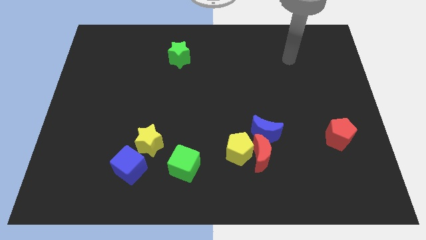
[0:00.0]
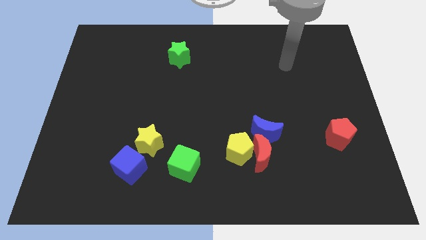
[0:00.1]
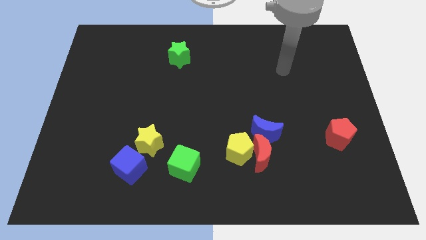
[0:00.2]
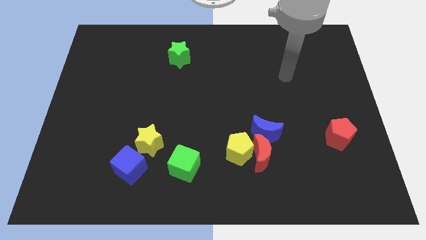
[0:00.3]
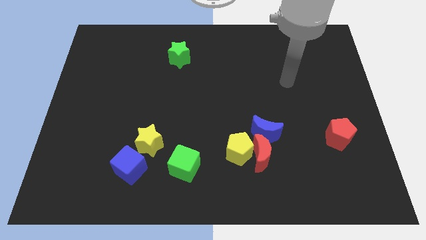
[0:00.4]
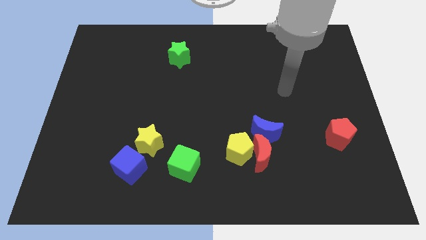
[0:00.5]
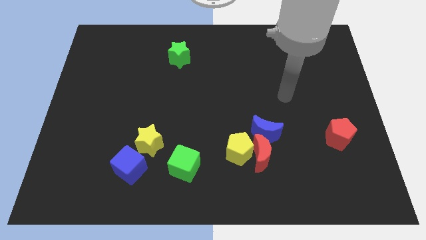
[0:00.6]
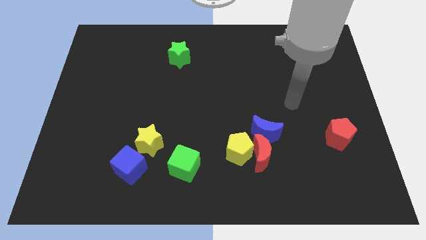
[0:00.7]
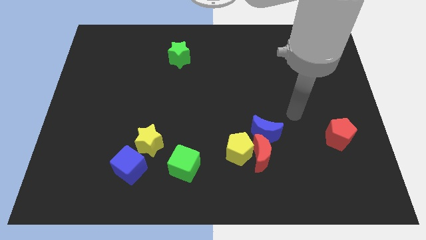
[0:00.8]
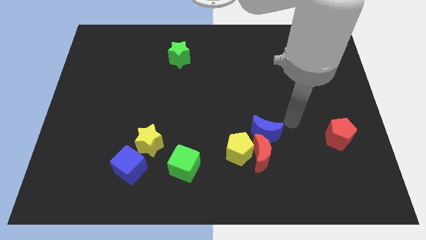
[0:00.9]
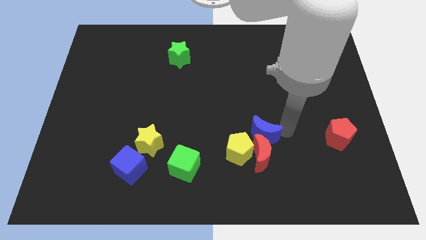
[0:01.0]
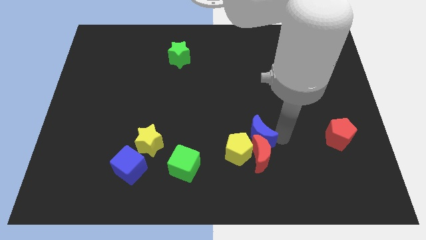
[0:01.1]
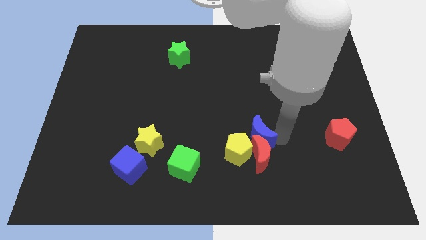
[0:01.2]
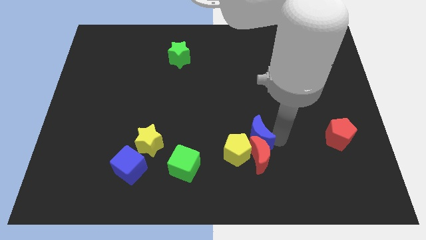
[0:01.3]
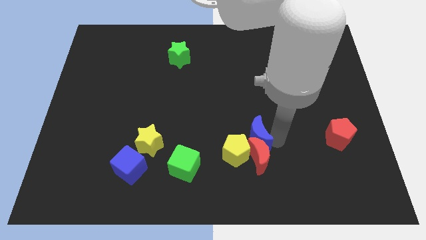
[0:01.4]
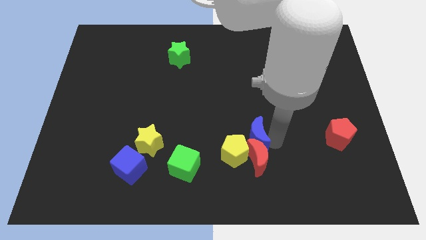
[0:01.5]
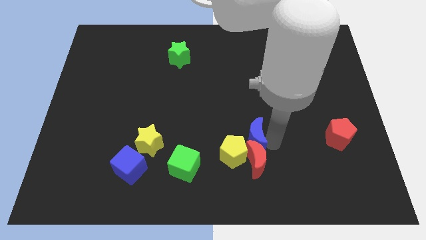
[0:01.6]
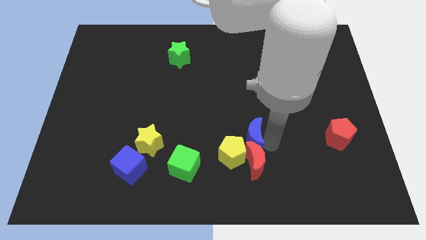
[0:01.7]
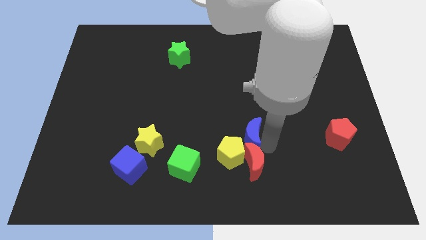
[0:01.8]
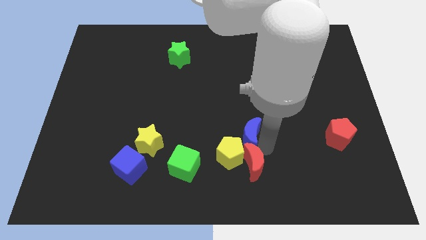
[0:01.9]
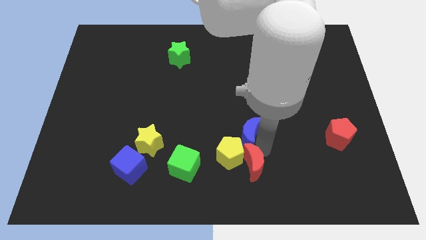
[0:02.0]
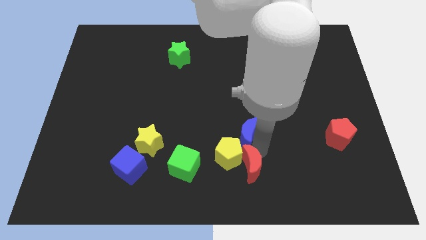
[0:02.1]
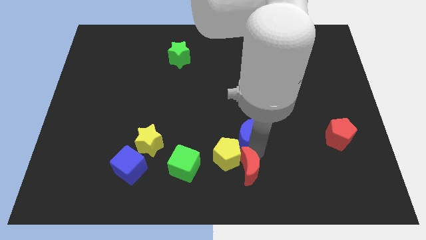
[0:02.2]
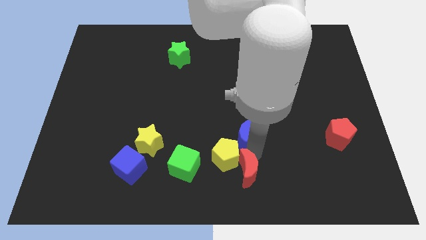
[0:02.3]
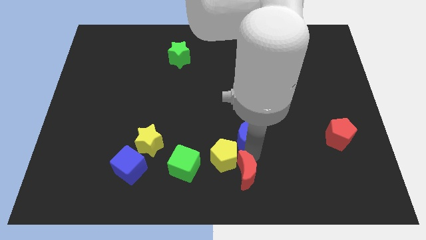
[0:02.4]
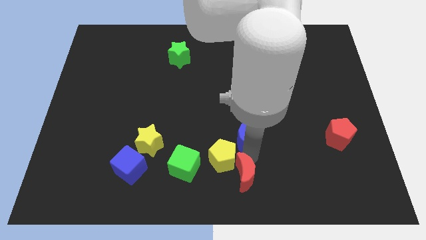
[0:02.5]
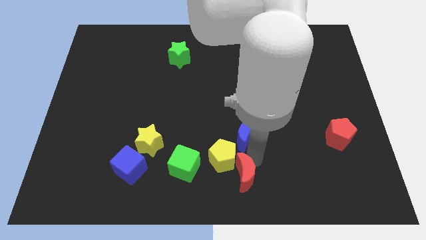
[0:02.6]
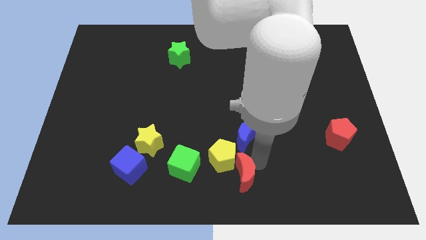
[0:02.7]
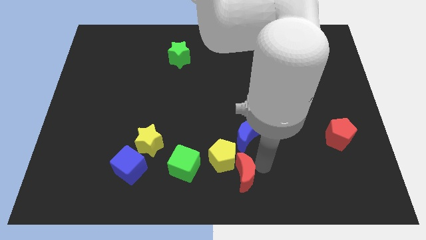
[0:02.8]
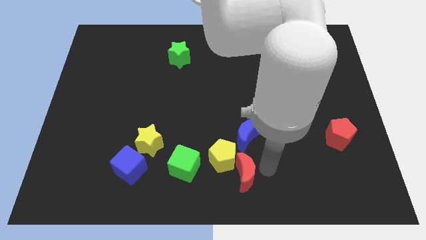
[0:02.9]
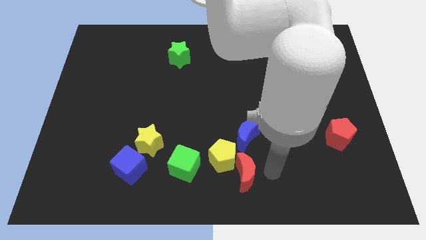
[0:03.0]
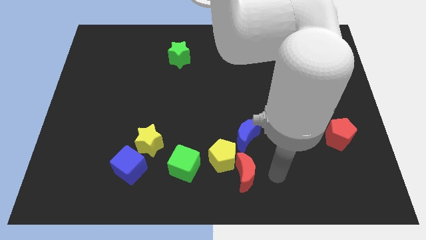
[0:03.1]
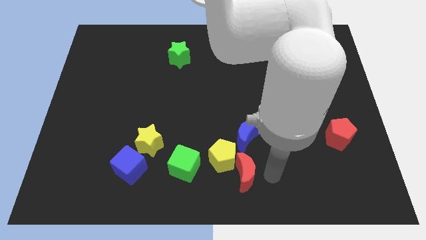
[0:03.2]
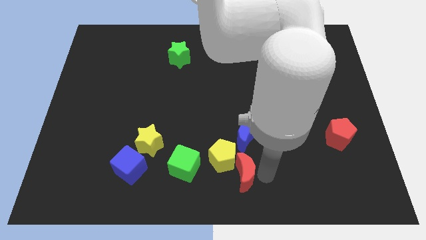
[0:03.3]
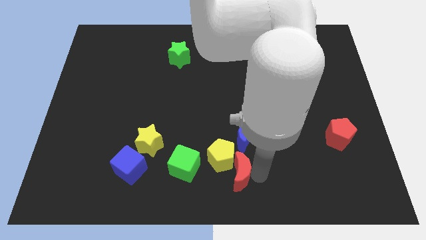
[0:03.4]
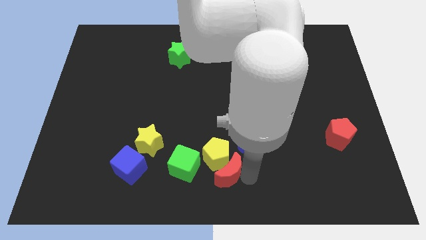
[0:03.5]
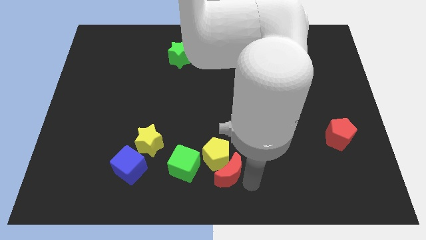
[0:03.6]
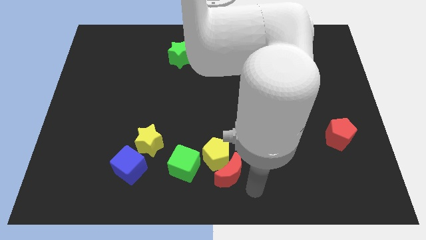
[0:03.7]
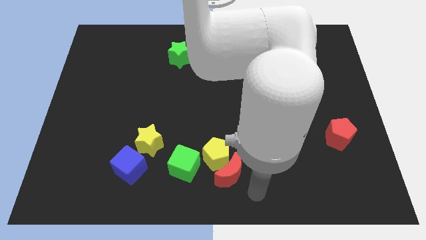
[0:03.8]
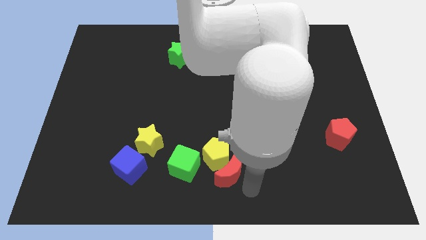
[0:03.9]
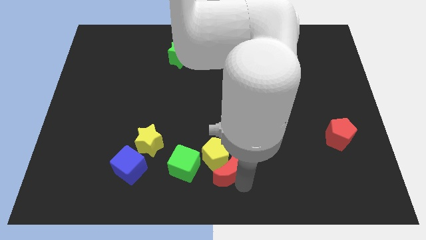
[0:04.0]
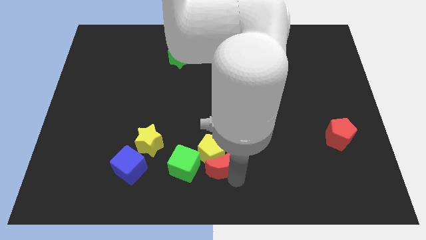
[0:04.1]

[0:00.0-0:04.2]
slightly move the red moon left

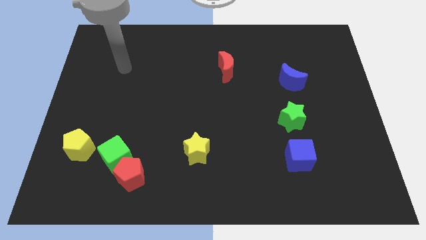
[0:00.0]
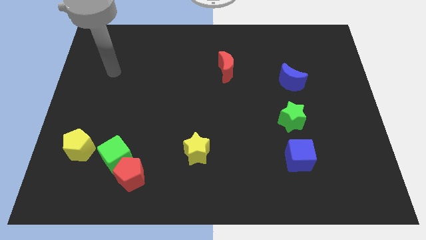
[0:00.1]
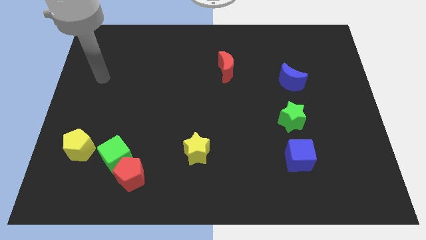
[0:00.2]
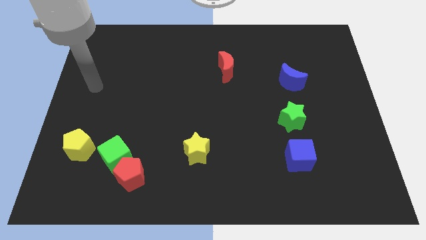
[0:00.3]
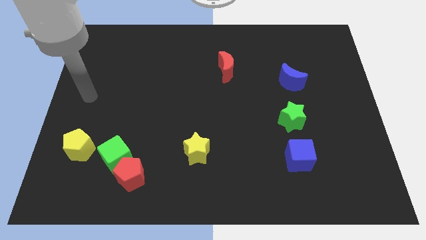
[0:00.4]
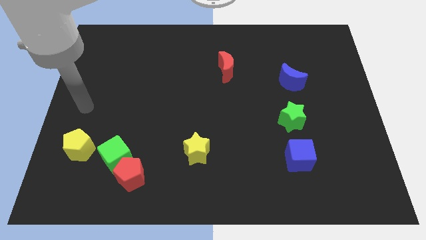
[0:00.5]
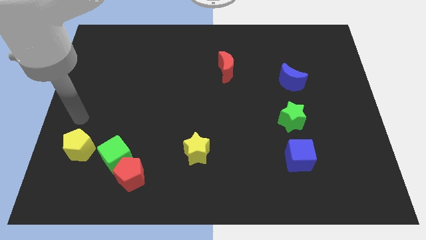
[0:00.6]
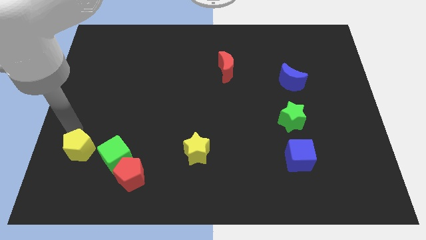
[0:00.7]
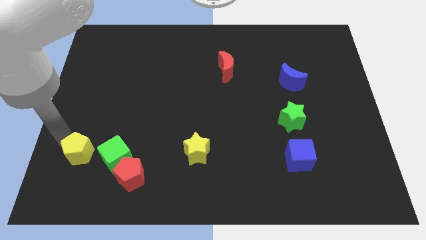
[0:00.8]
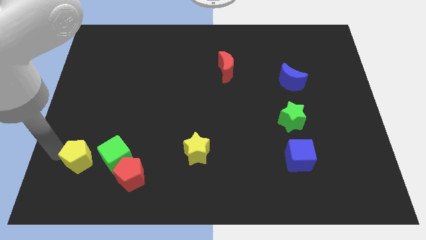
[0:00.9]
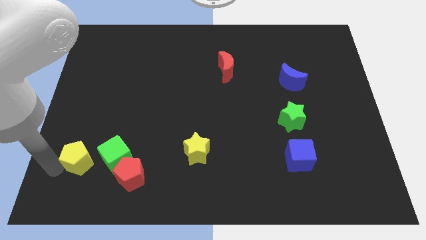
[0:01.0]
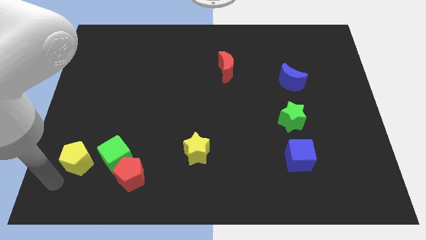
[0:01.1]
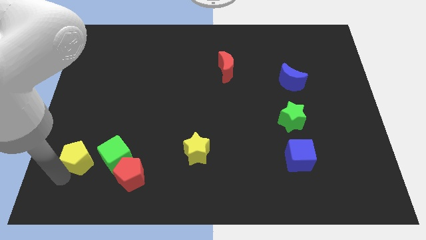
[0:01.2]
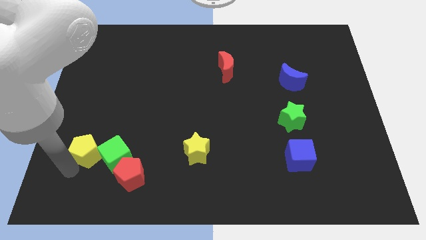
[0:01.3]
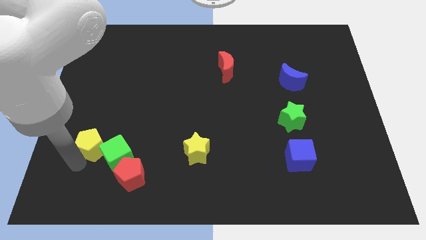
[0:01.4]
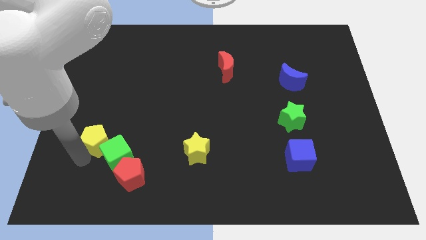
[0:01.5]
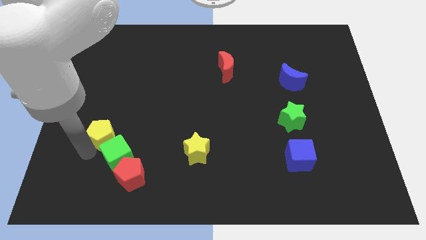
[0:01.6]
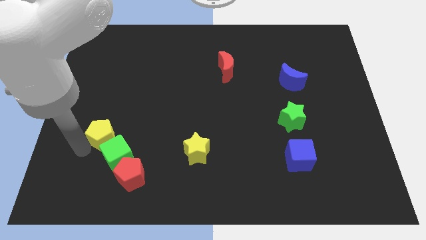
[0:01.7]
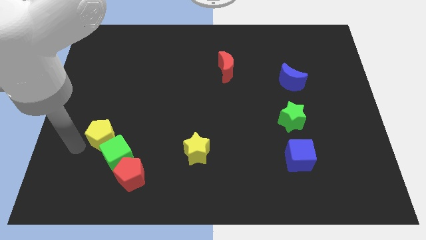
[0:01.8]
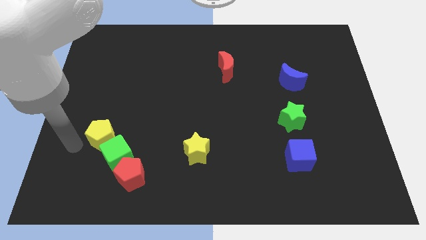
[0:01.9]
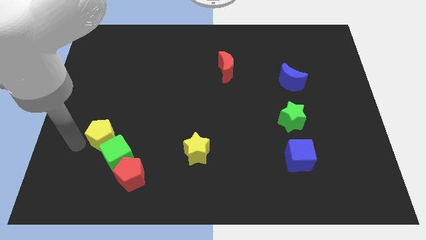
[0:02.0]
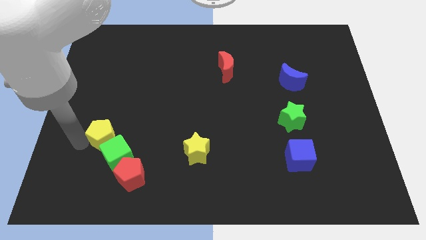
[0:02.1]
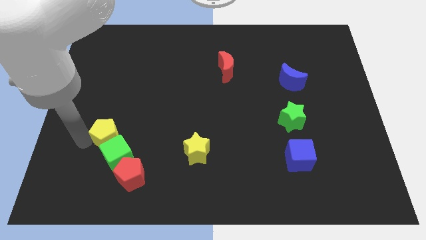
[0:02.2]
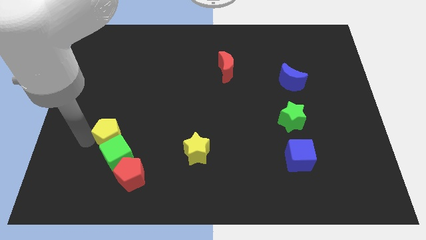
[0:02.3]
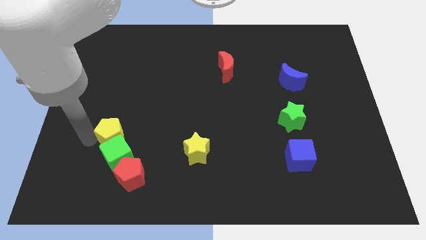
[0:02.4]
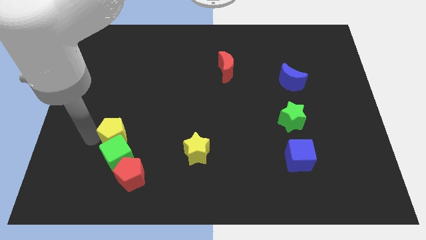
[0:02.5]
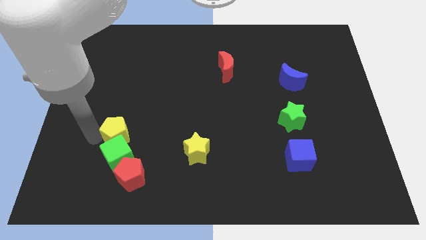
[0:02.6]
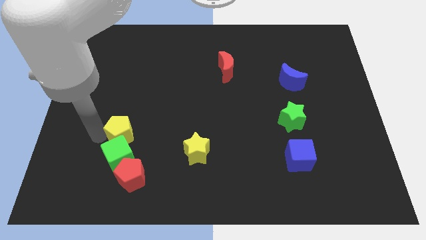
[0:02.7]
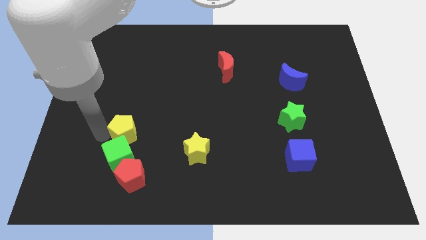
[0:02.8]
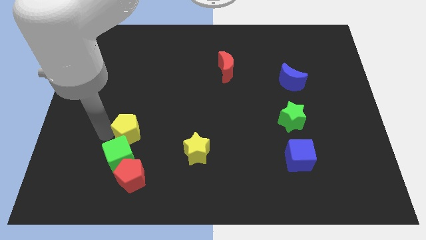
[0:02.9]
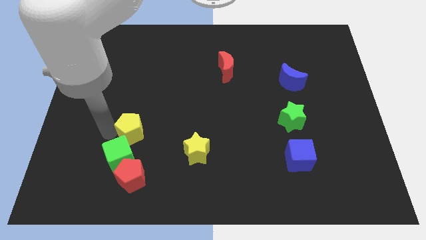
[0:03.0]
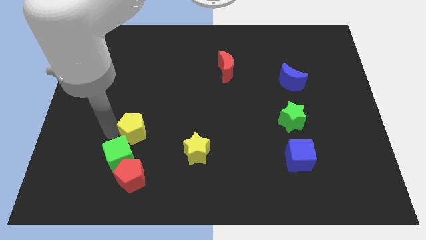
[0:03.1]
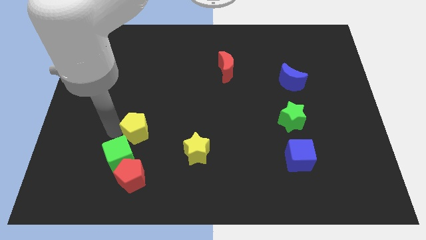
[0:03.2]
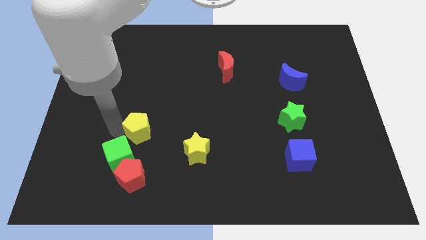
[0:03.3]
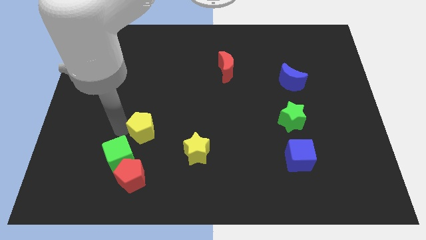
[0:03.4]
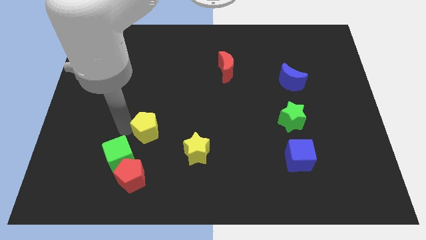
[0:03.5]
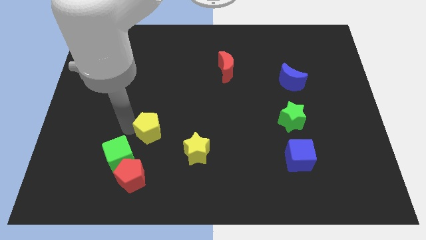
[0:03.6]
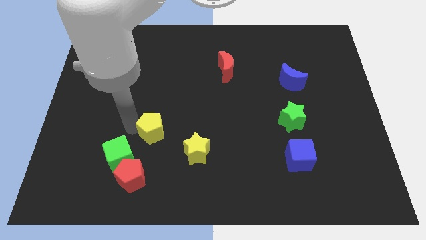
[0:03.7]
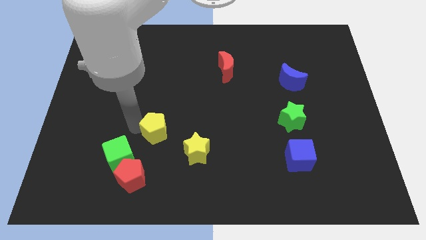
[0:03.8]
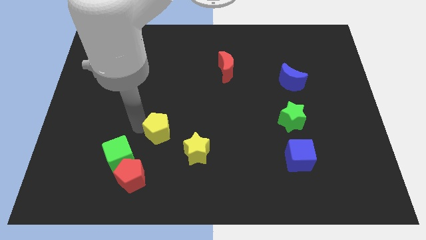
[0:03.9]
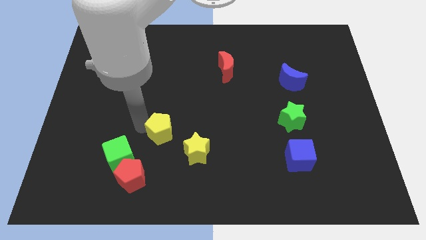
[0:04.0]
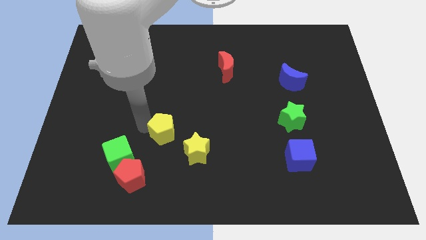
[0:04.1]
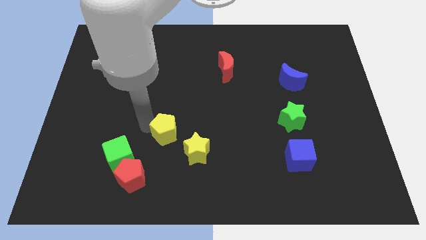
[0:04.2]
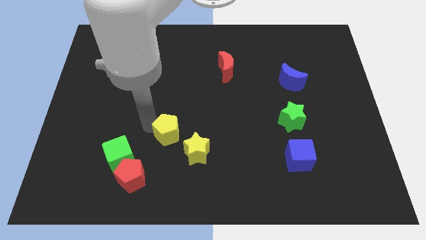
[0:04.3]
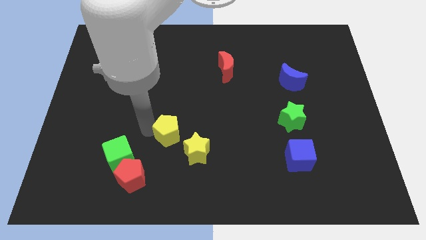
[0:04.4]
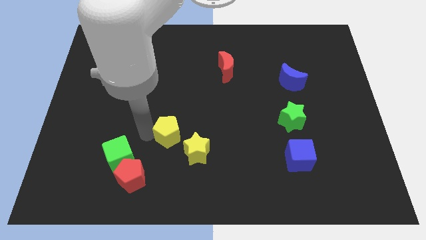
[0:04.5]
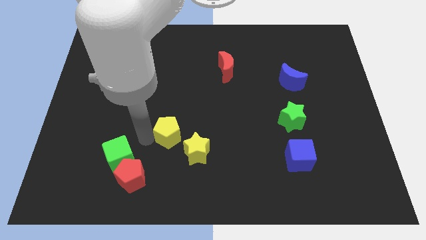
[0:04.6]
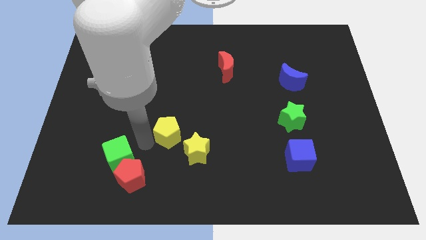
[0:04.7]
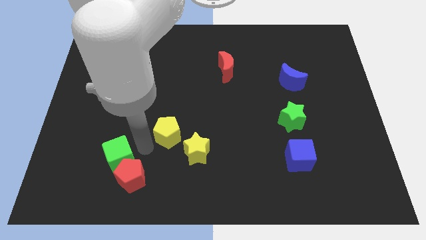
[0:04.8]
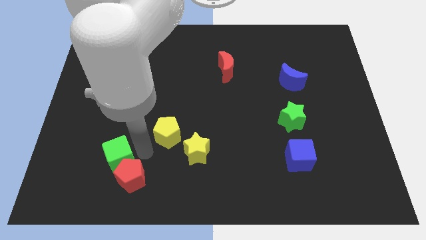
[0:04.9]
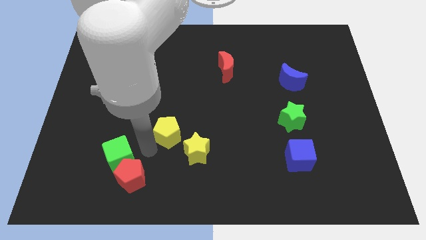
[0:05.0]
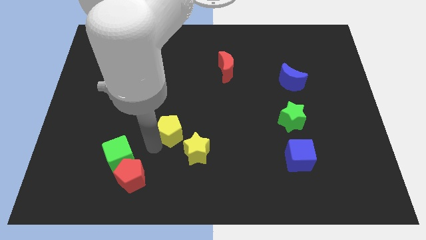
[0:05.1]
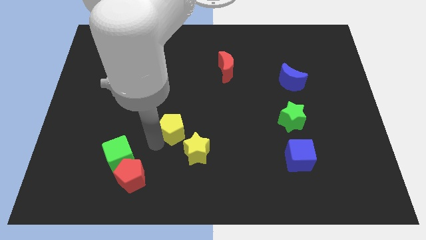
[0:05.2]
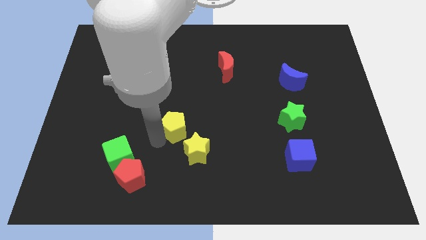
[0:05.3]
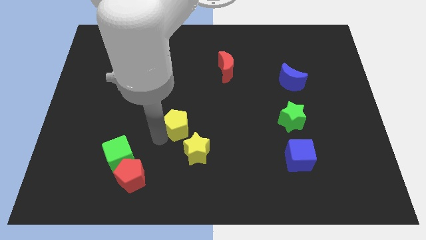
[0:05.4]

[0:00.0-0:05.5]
slide the yellow pentagon right
